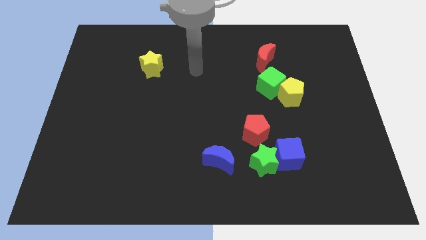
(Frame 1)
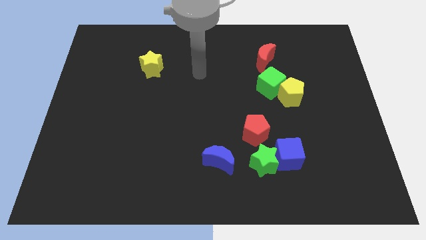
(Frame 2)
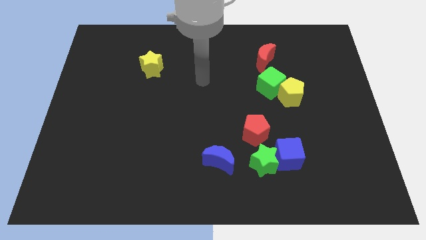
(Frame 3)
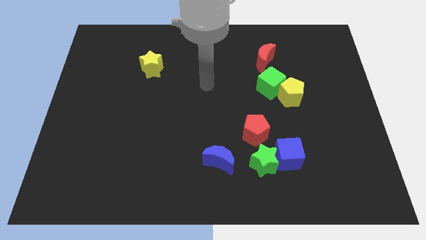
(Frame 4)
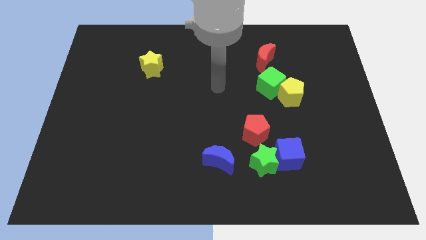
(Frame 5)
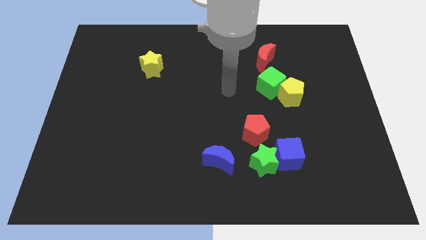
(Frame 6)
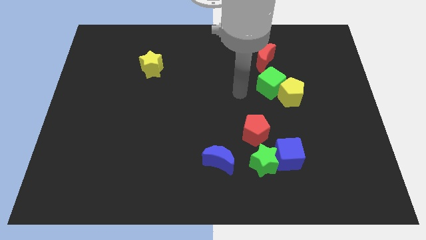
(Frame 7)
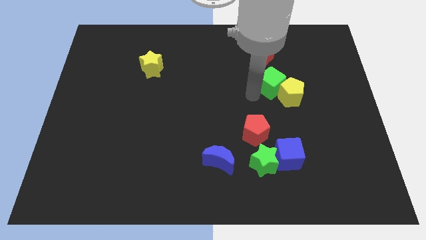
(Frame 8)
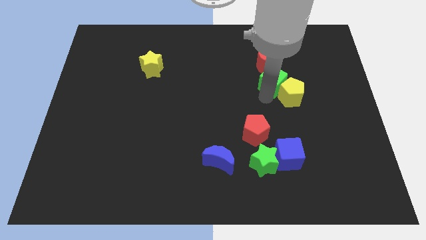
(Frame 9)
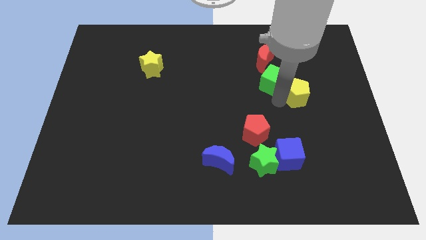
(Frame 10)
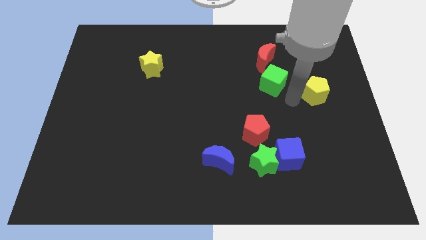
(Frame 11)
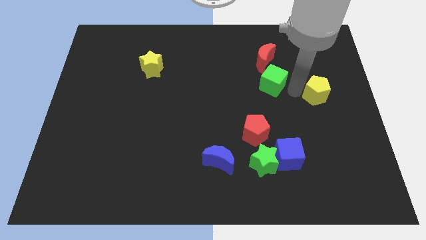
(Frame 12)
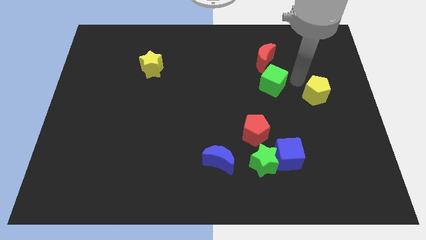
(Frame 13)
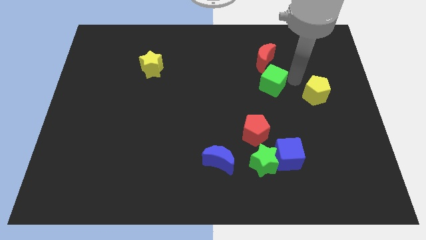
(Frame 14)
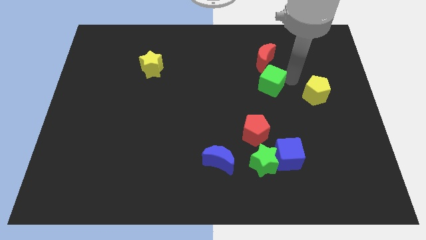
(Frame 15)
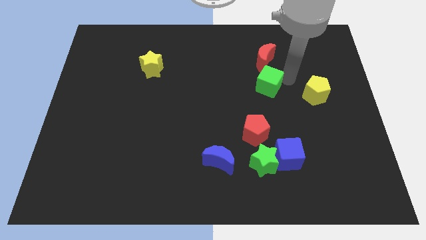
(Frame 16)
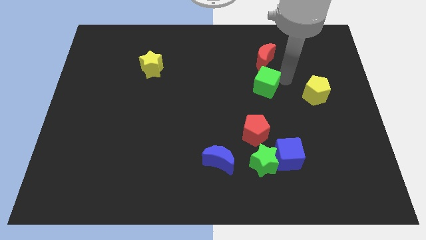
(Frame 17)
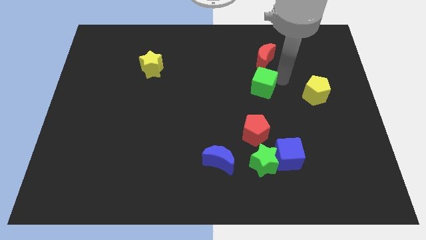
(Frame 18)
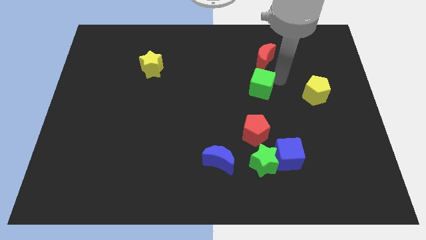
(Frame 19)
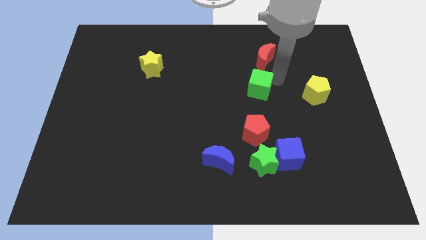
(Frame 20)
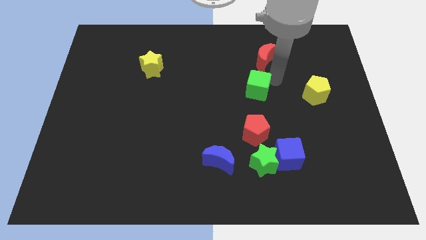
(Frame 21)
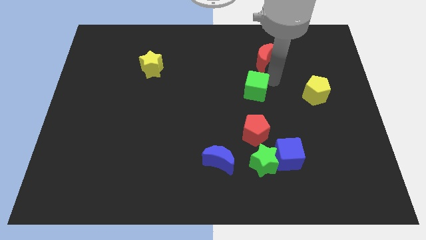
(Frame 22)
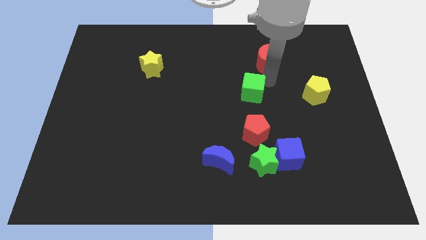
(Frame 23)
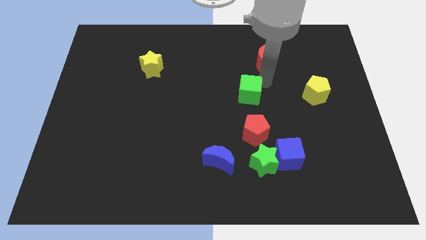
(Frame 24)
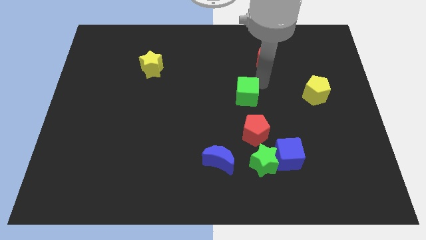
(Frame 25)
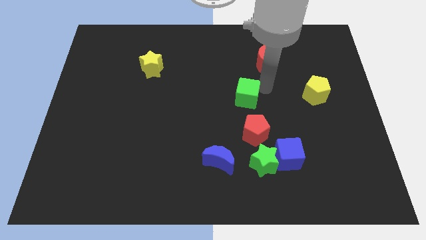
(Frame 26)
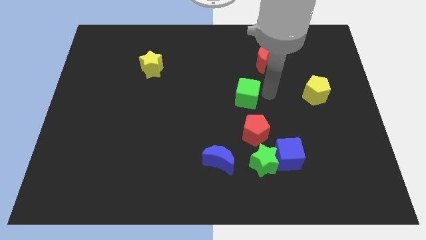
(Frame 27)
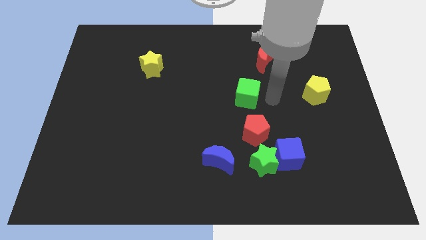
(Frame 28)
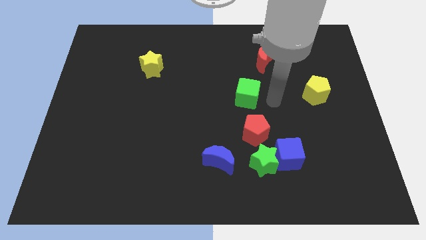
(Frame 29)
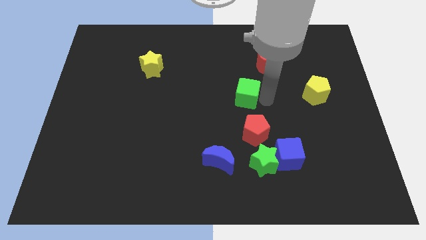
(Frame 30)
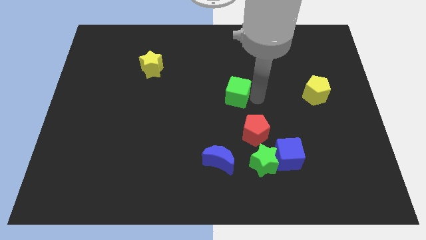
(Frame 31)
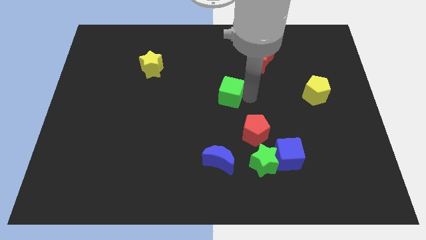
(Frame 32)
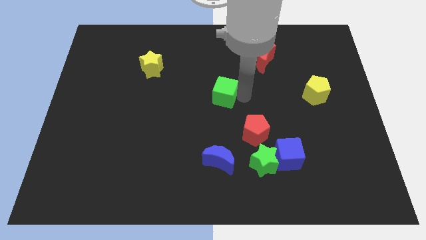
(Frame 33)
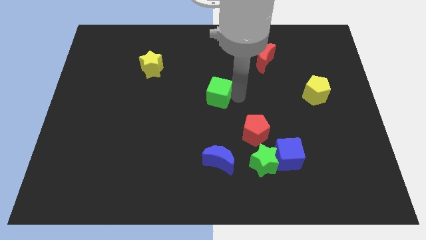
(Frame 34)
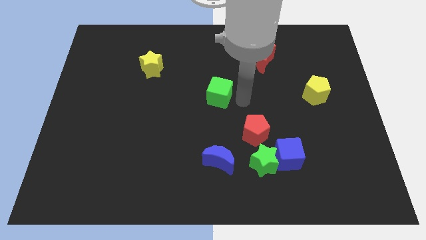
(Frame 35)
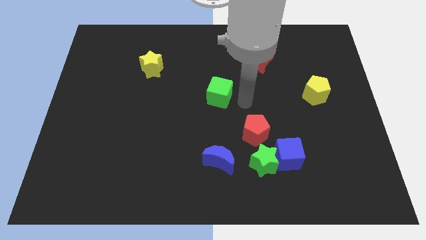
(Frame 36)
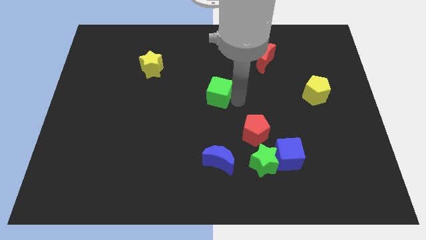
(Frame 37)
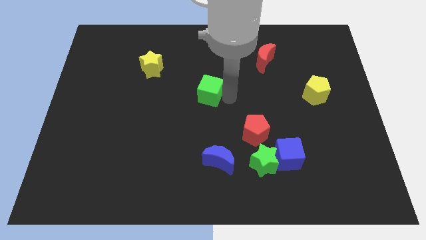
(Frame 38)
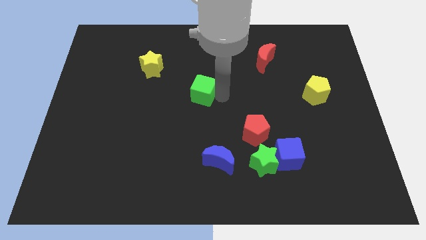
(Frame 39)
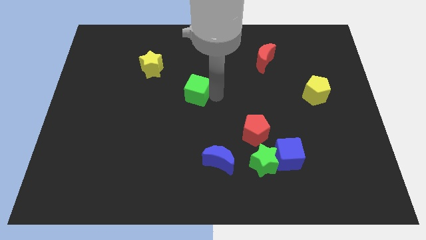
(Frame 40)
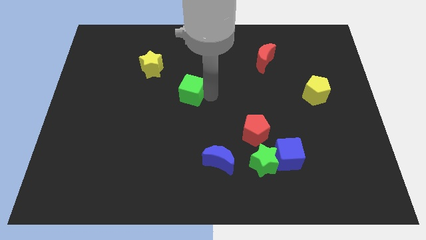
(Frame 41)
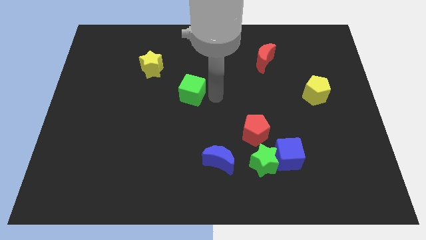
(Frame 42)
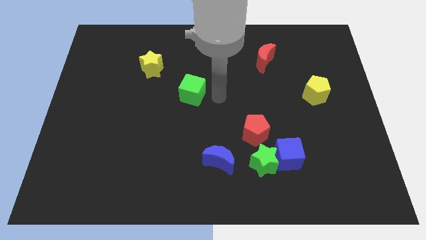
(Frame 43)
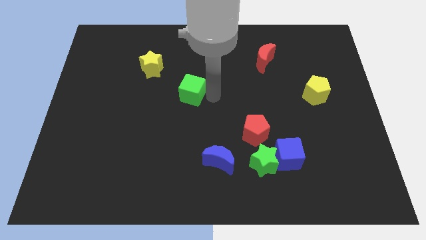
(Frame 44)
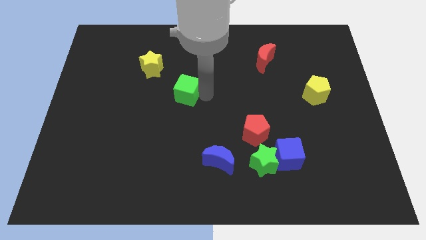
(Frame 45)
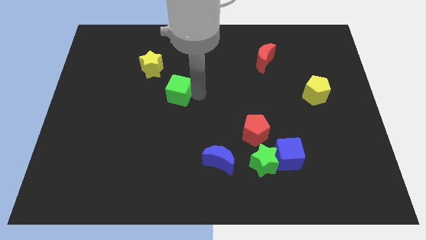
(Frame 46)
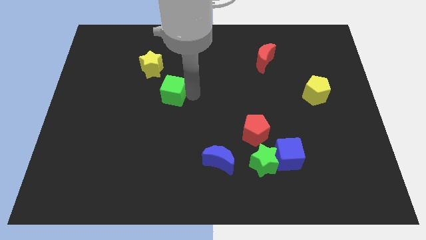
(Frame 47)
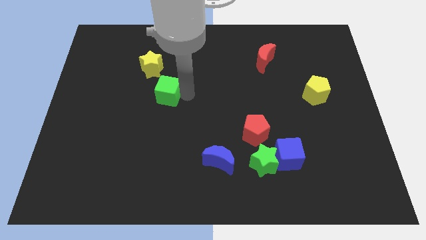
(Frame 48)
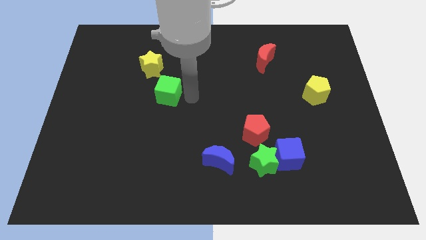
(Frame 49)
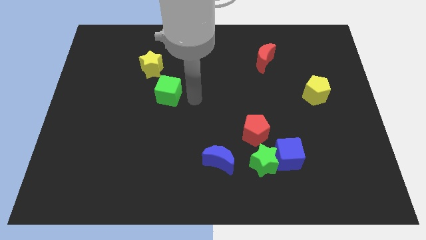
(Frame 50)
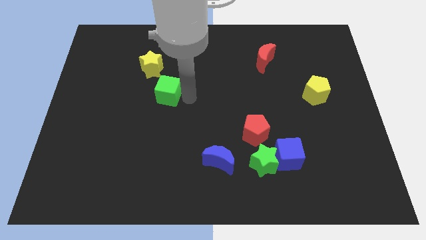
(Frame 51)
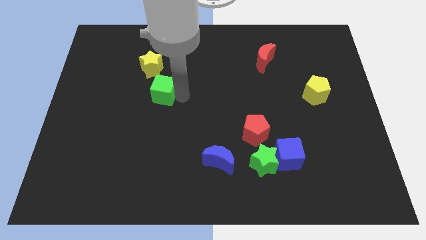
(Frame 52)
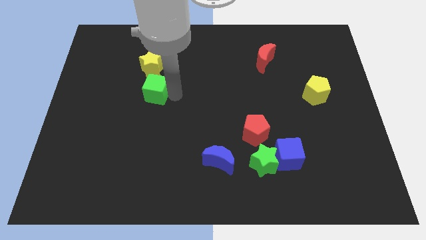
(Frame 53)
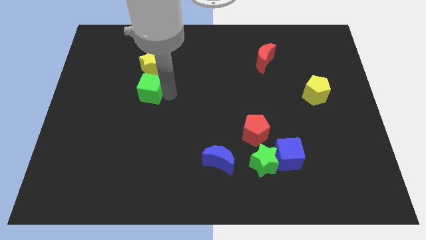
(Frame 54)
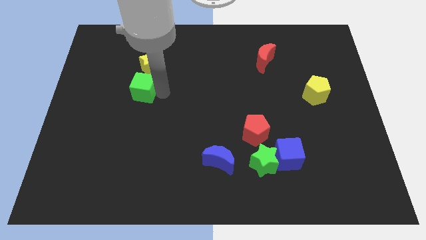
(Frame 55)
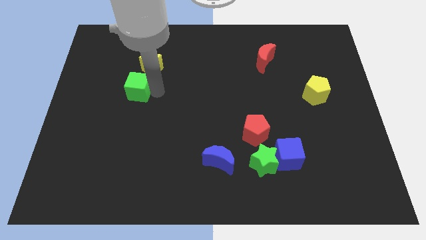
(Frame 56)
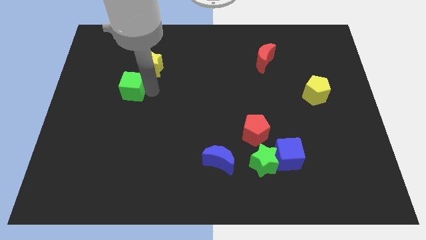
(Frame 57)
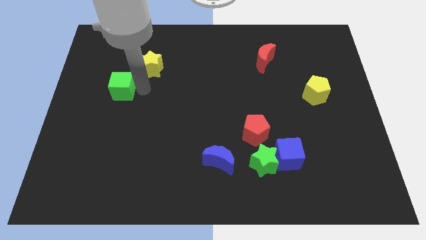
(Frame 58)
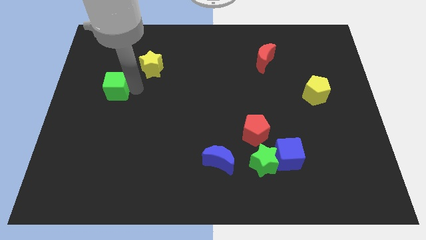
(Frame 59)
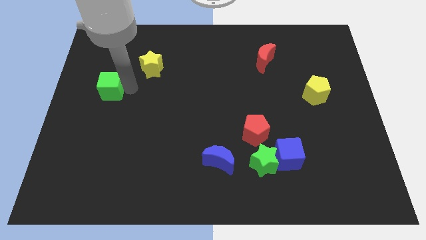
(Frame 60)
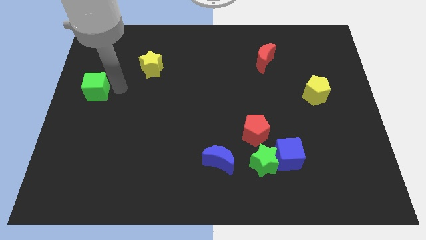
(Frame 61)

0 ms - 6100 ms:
push the green cube to the center left
